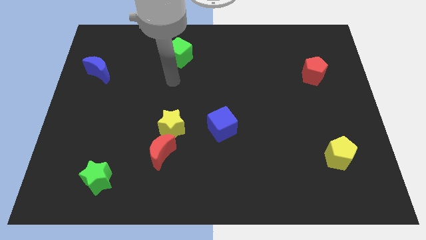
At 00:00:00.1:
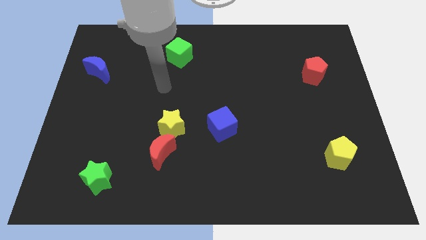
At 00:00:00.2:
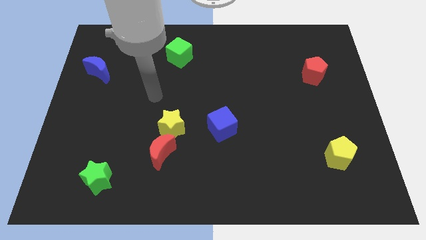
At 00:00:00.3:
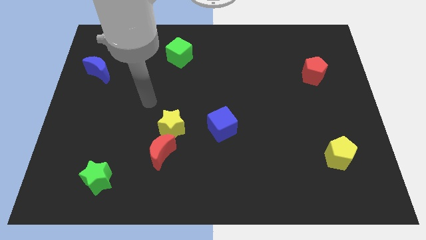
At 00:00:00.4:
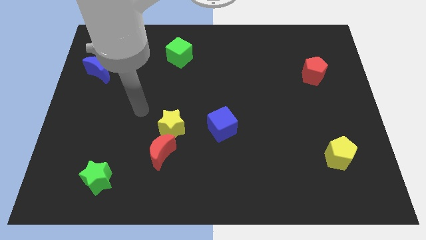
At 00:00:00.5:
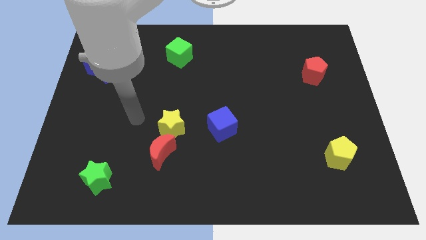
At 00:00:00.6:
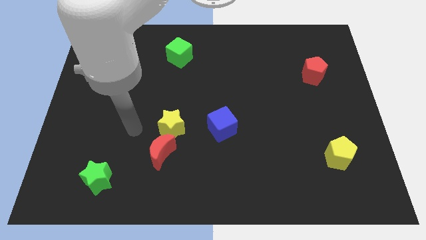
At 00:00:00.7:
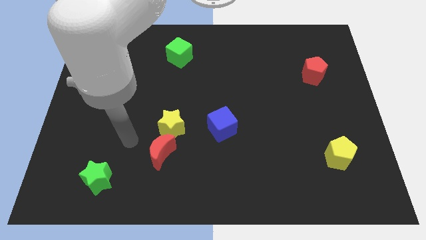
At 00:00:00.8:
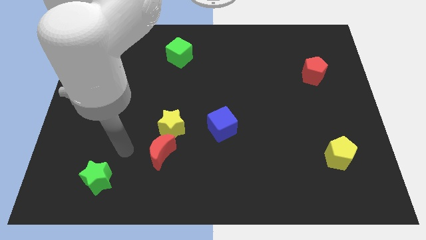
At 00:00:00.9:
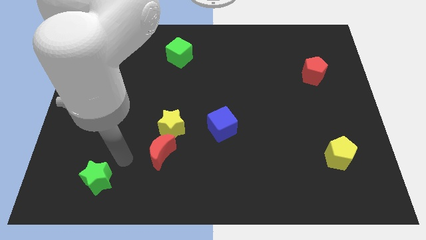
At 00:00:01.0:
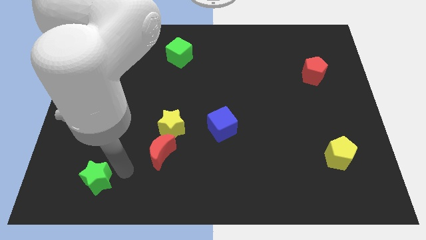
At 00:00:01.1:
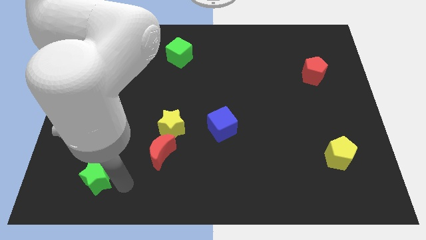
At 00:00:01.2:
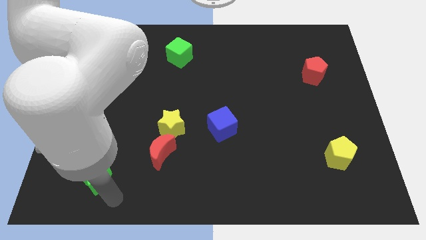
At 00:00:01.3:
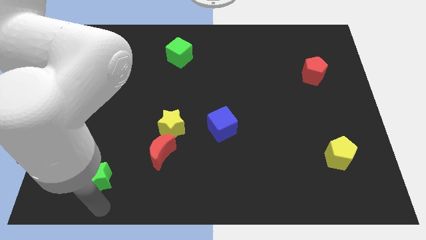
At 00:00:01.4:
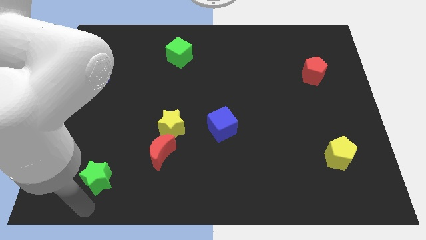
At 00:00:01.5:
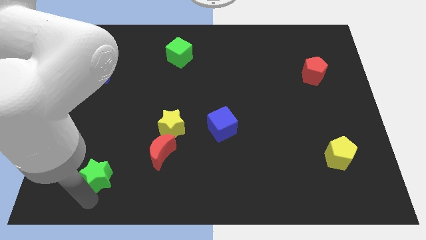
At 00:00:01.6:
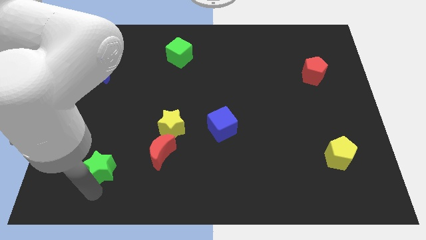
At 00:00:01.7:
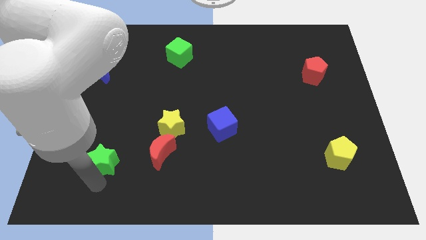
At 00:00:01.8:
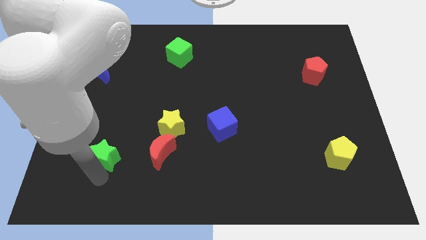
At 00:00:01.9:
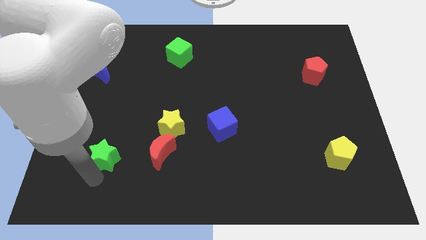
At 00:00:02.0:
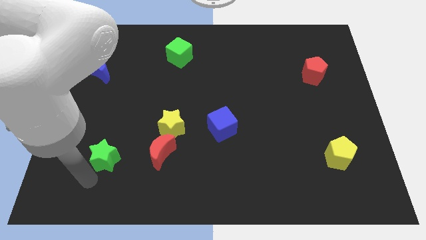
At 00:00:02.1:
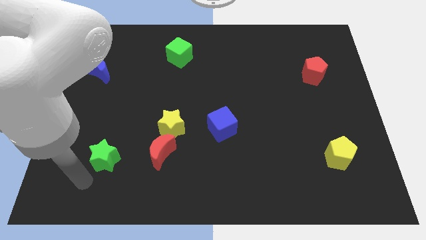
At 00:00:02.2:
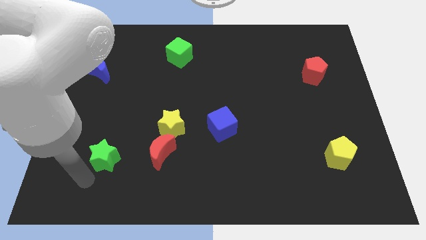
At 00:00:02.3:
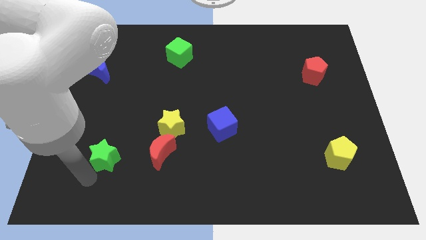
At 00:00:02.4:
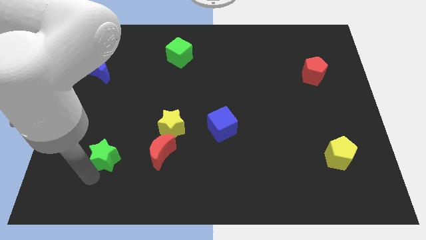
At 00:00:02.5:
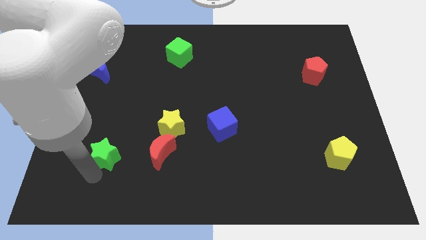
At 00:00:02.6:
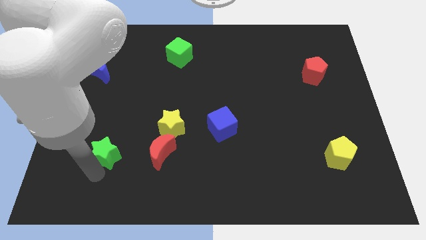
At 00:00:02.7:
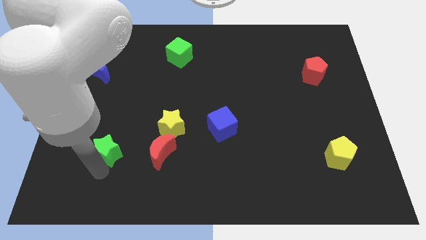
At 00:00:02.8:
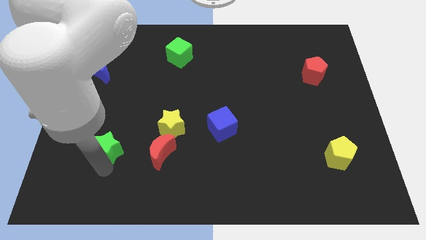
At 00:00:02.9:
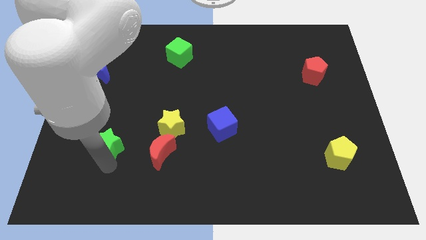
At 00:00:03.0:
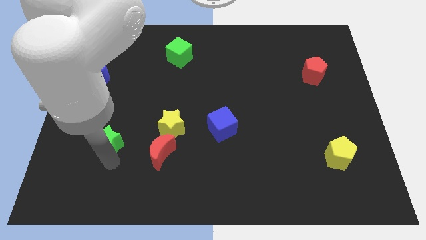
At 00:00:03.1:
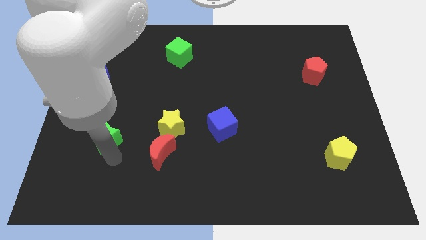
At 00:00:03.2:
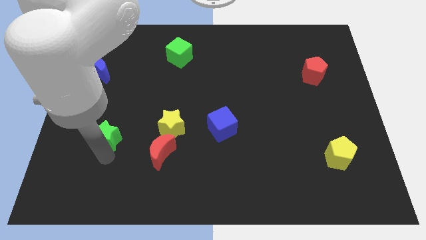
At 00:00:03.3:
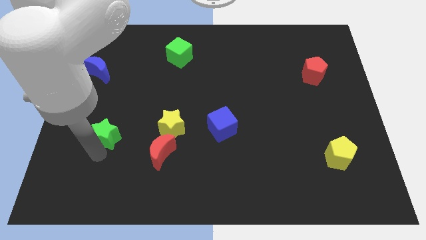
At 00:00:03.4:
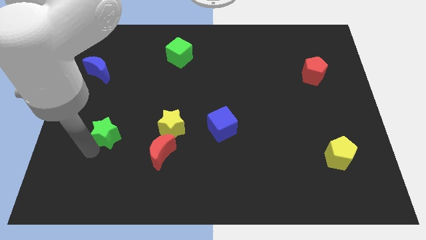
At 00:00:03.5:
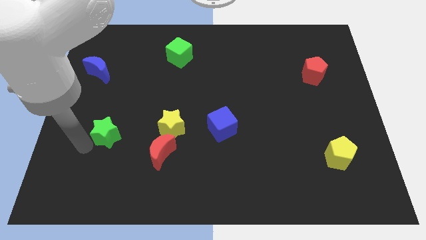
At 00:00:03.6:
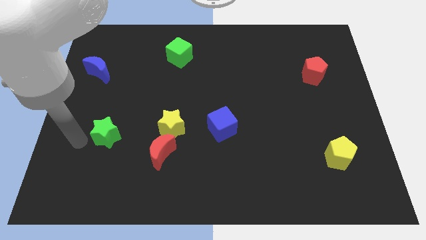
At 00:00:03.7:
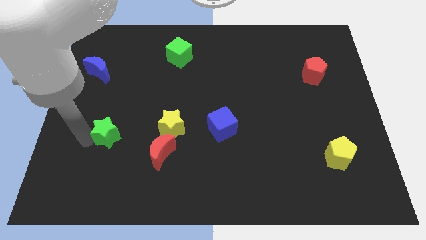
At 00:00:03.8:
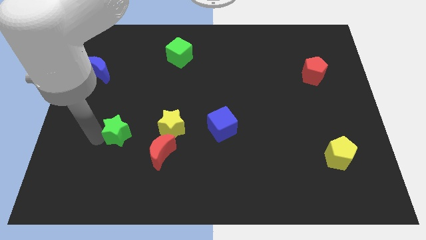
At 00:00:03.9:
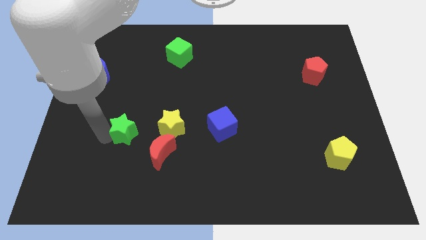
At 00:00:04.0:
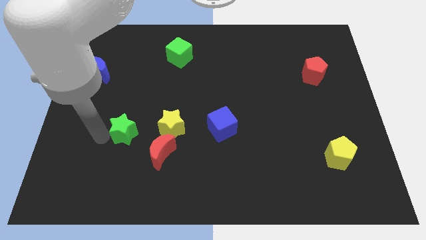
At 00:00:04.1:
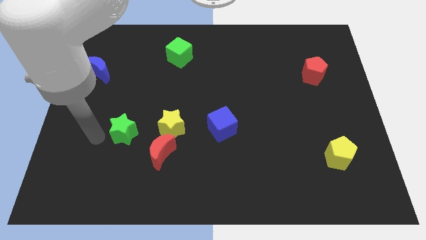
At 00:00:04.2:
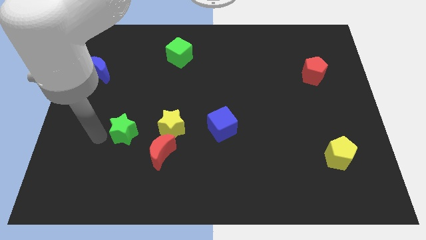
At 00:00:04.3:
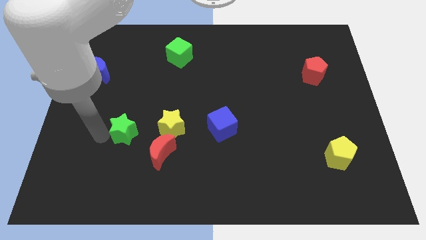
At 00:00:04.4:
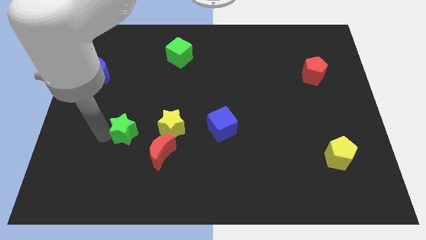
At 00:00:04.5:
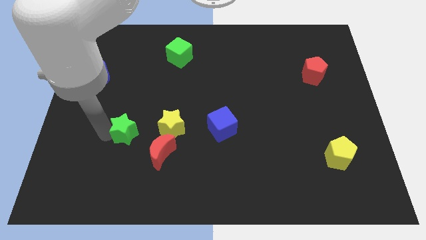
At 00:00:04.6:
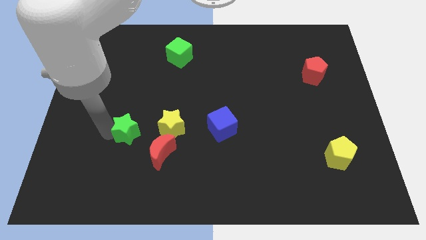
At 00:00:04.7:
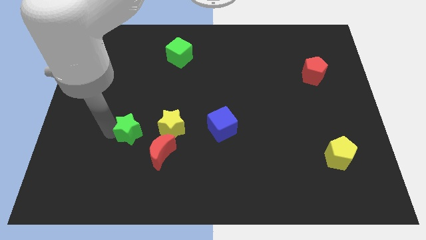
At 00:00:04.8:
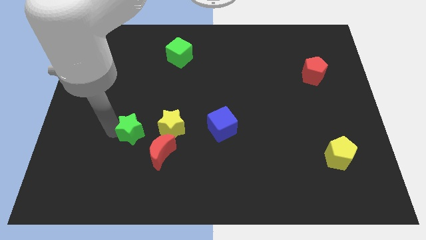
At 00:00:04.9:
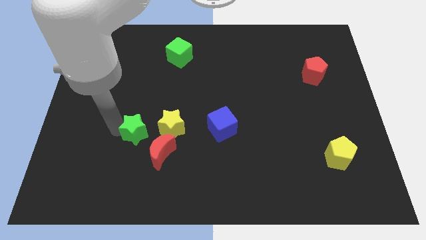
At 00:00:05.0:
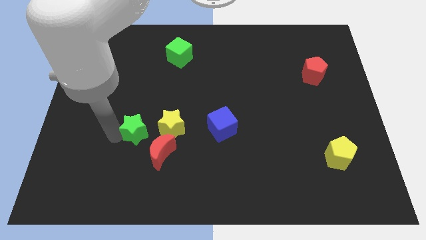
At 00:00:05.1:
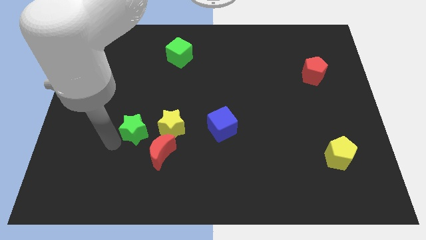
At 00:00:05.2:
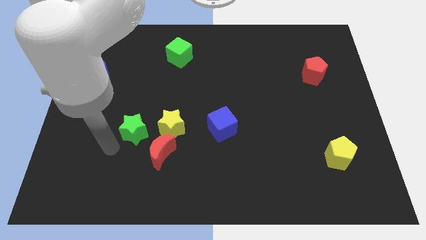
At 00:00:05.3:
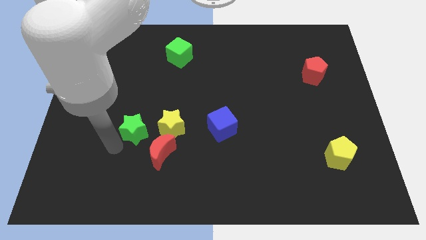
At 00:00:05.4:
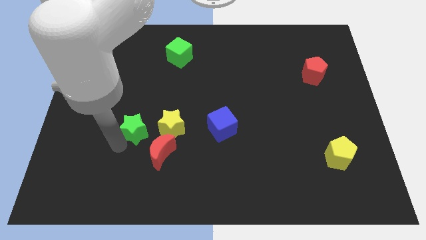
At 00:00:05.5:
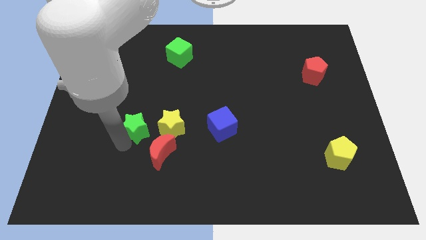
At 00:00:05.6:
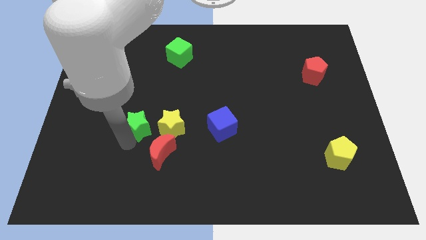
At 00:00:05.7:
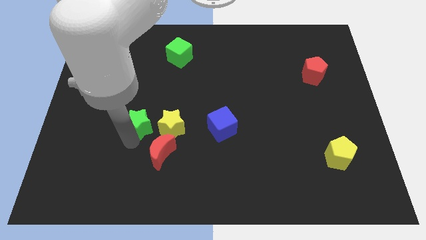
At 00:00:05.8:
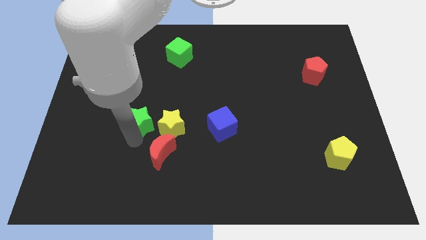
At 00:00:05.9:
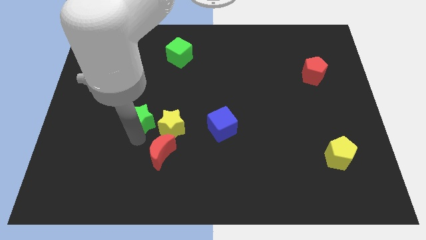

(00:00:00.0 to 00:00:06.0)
slide the green star to the top of the red moon
